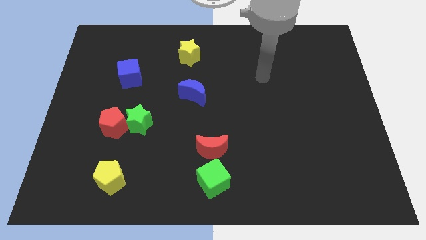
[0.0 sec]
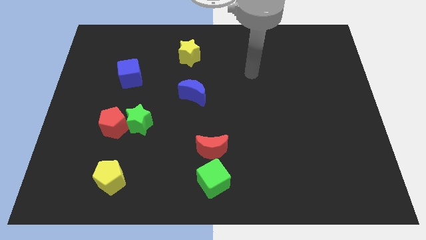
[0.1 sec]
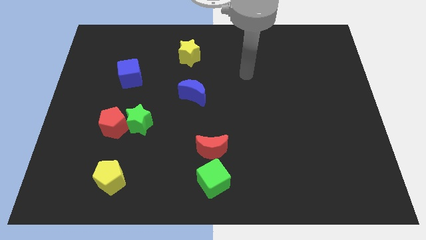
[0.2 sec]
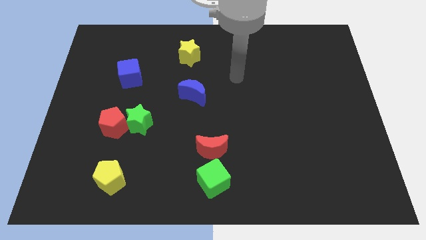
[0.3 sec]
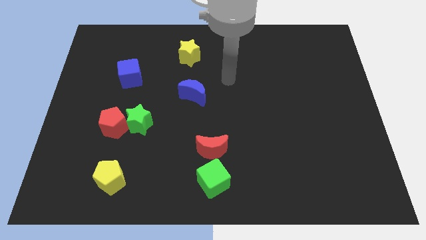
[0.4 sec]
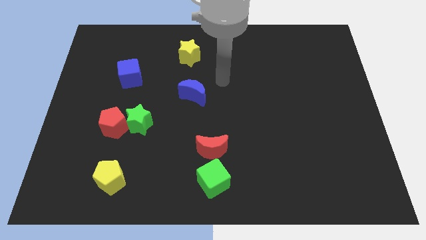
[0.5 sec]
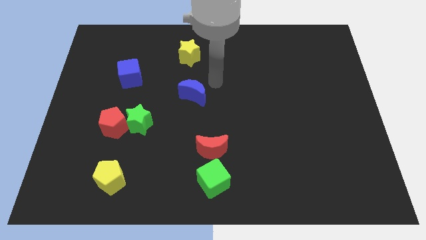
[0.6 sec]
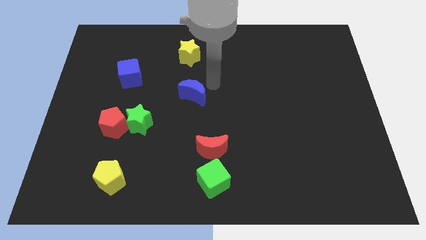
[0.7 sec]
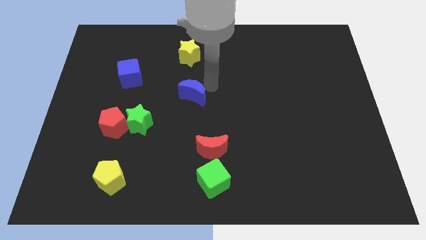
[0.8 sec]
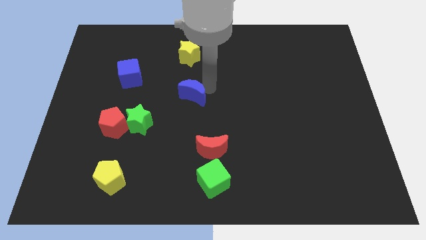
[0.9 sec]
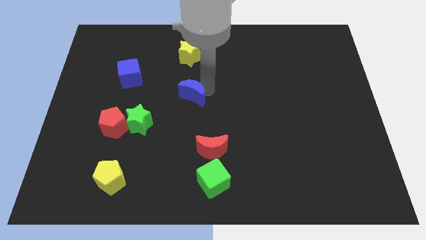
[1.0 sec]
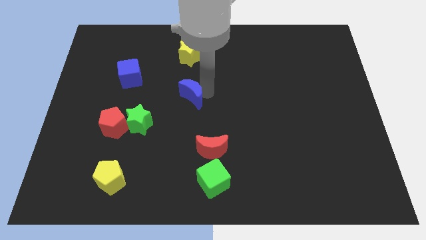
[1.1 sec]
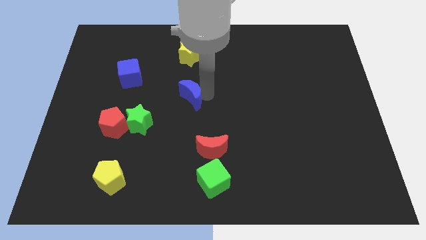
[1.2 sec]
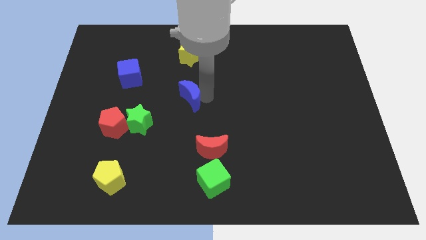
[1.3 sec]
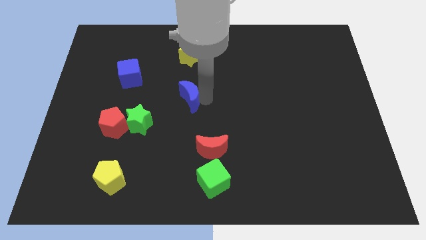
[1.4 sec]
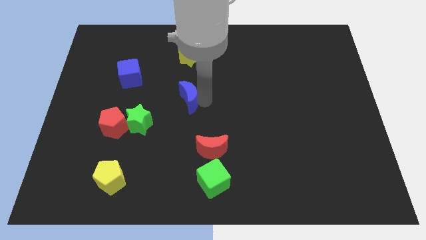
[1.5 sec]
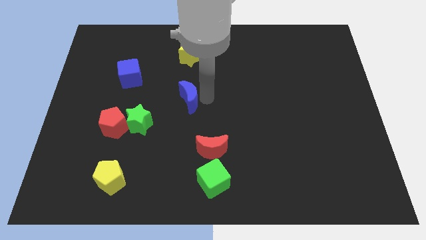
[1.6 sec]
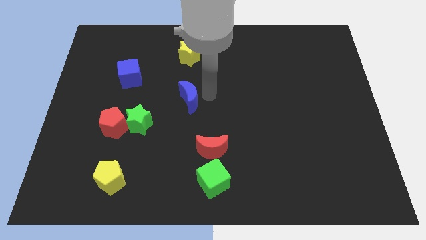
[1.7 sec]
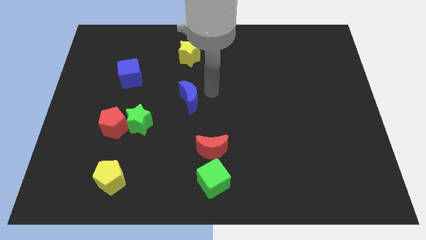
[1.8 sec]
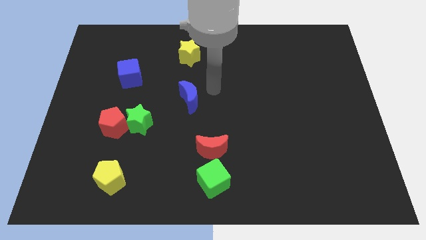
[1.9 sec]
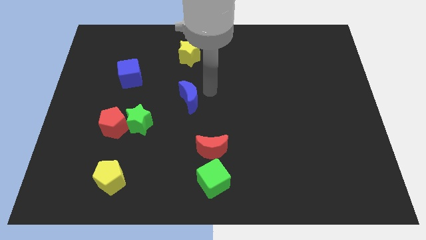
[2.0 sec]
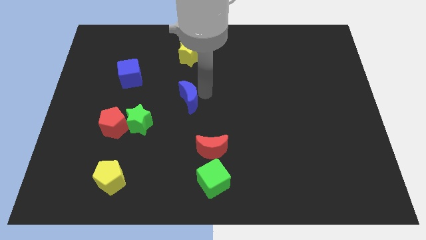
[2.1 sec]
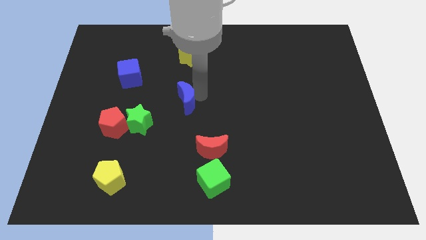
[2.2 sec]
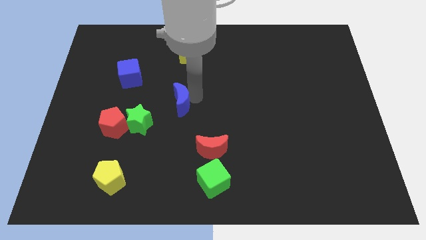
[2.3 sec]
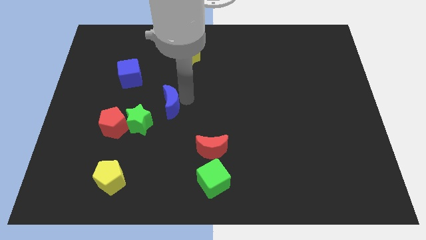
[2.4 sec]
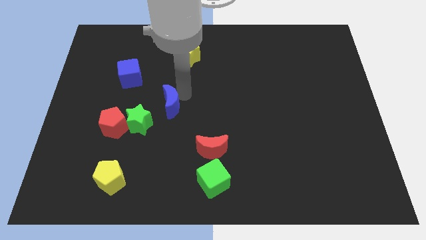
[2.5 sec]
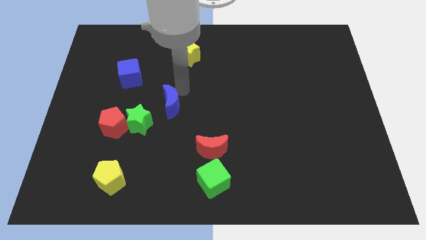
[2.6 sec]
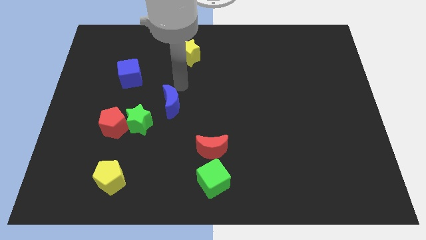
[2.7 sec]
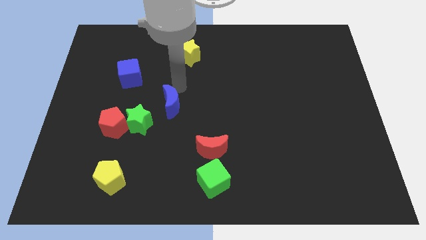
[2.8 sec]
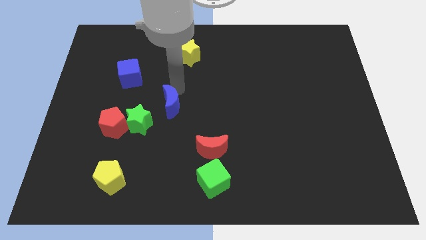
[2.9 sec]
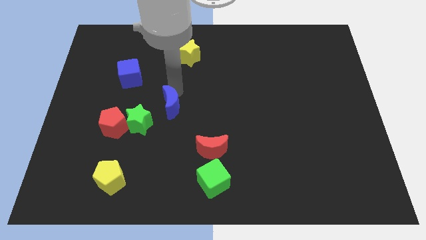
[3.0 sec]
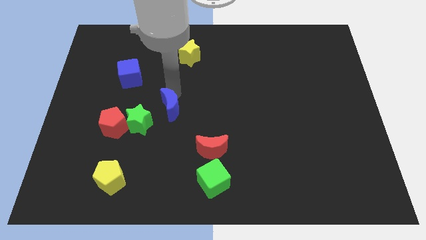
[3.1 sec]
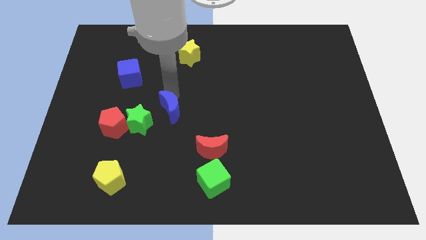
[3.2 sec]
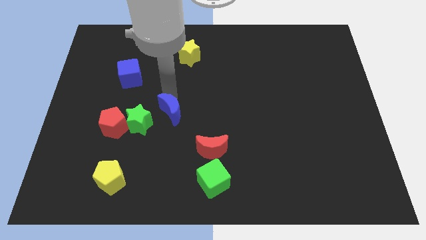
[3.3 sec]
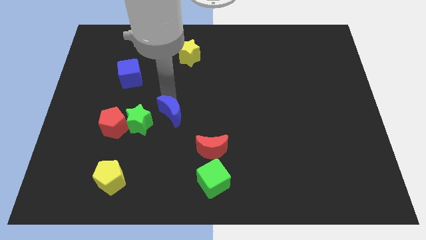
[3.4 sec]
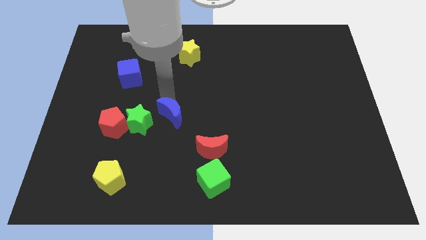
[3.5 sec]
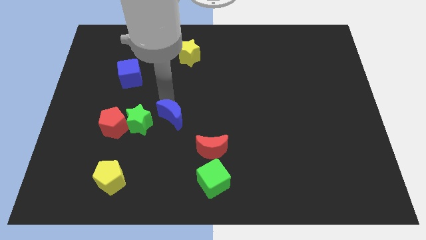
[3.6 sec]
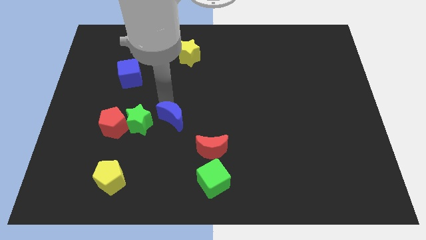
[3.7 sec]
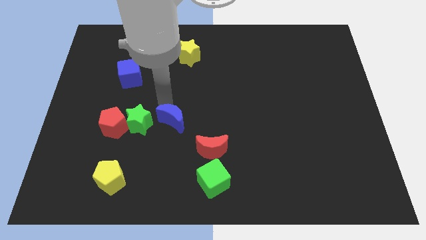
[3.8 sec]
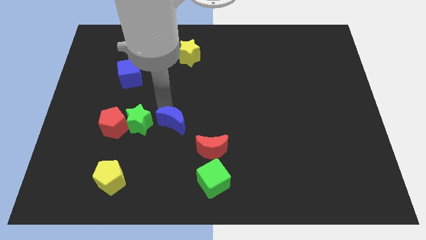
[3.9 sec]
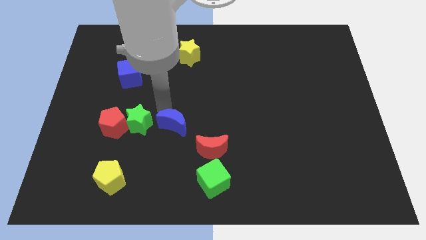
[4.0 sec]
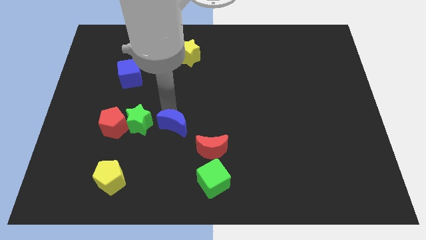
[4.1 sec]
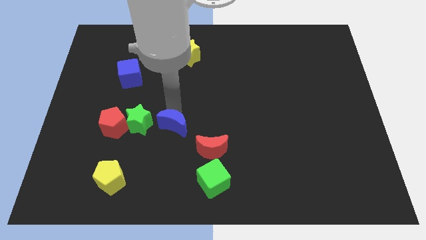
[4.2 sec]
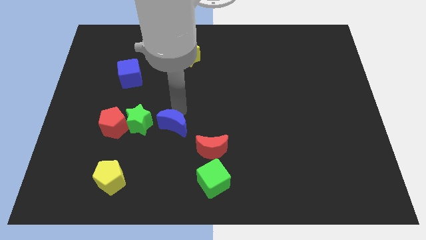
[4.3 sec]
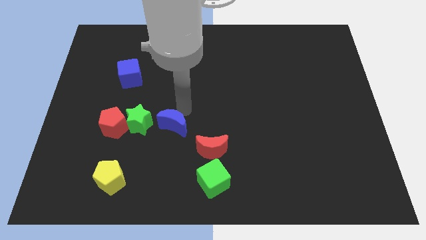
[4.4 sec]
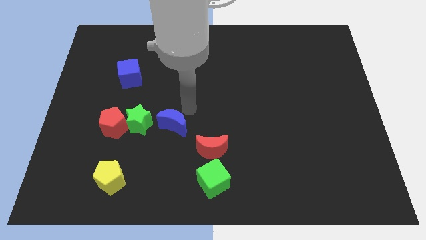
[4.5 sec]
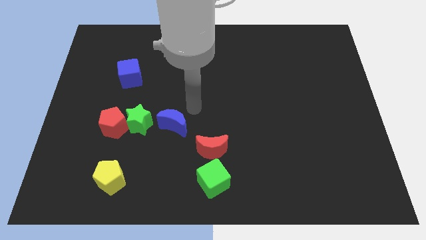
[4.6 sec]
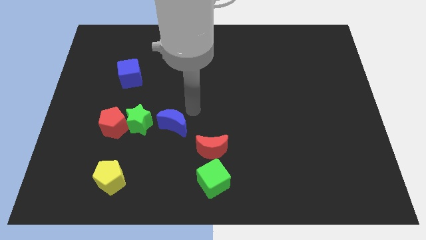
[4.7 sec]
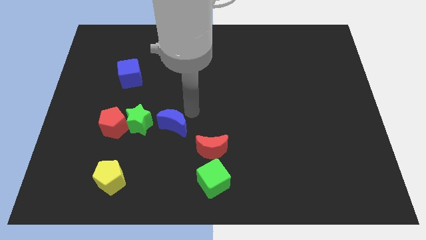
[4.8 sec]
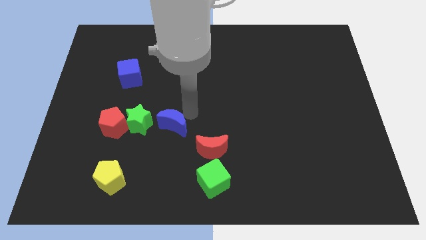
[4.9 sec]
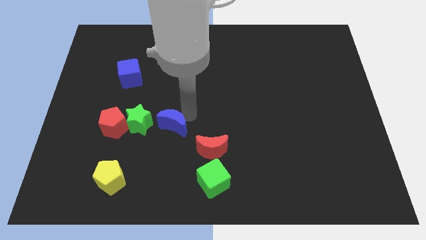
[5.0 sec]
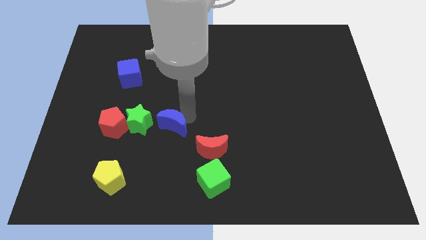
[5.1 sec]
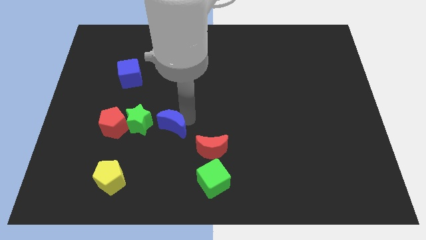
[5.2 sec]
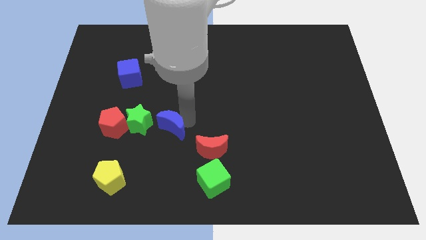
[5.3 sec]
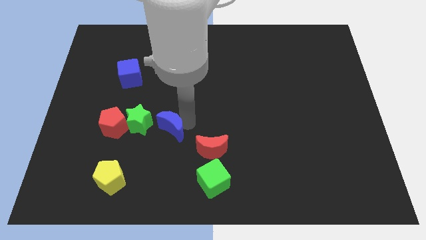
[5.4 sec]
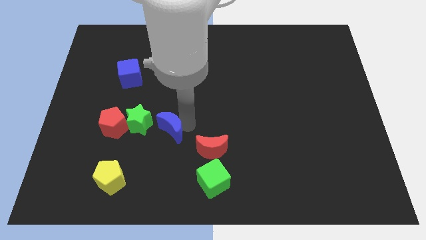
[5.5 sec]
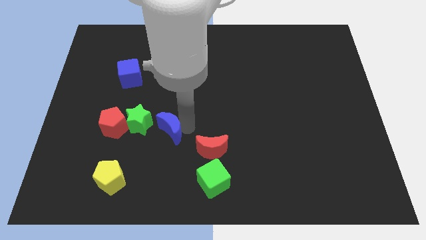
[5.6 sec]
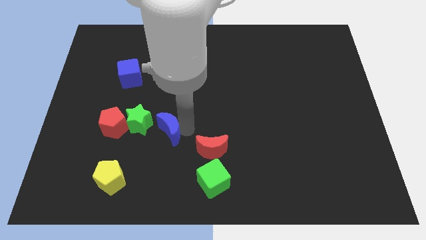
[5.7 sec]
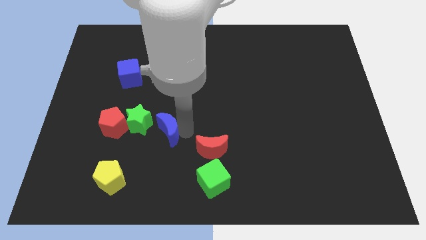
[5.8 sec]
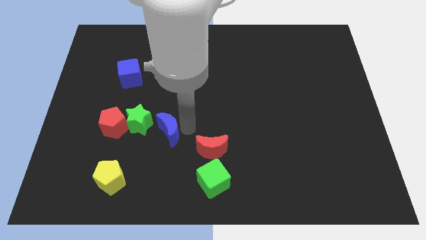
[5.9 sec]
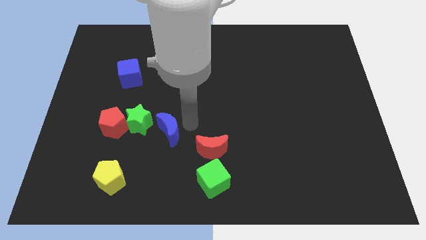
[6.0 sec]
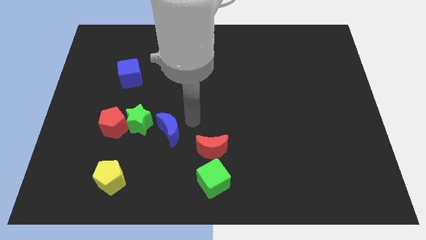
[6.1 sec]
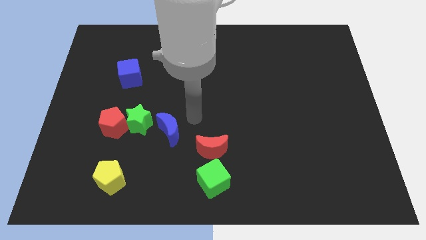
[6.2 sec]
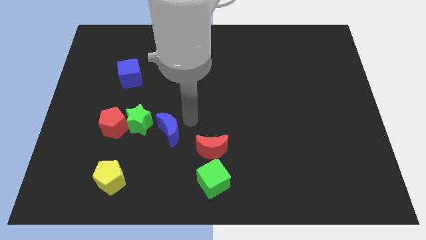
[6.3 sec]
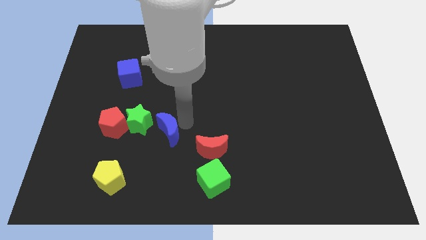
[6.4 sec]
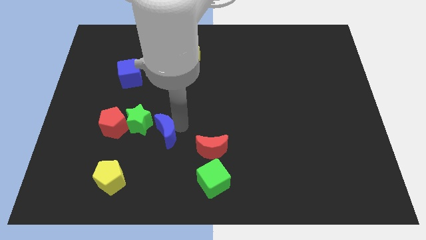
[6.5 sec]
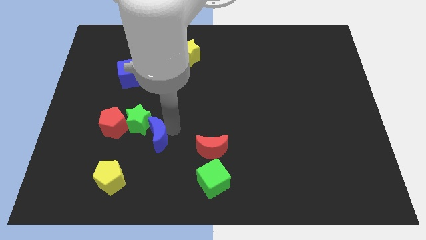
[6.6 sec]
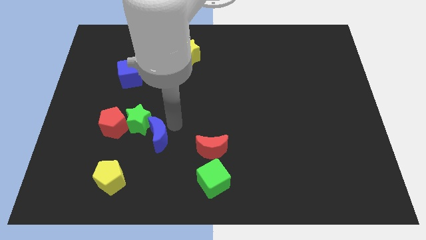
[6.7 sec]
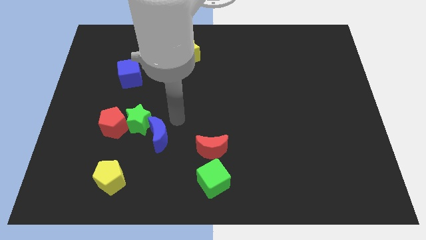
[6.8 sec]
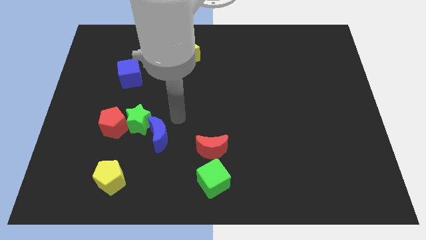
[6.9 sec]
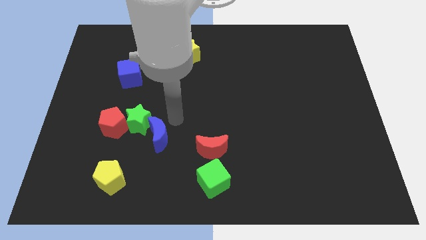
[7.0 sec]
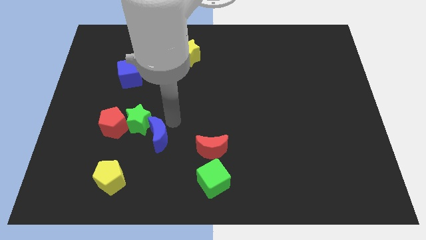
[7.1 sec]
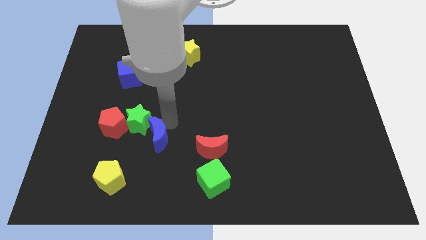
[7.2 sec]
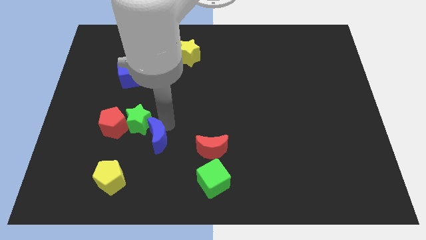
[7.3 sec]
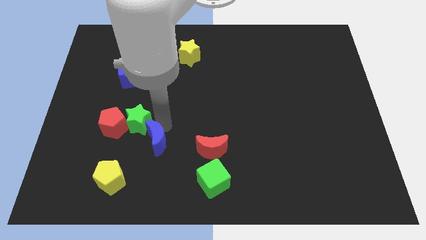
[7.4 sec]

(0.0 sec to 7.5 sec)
move the blue moon to the top right of the yellow pentagon
